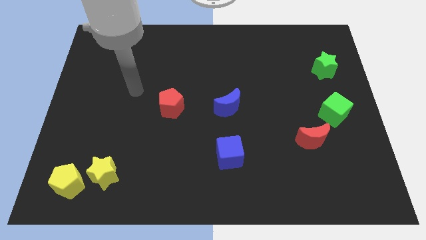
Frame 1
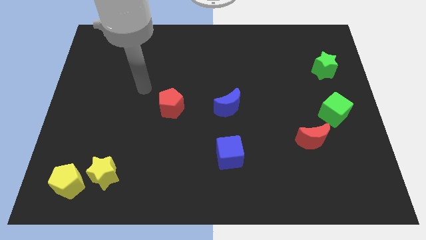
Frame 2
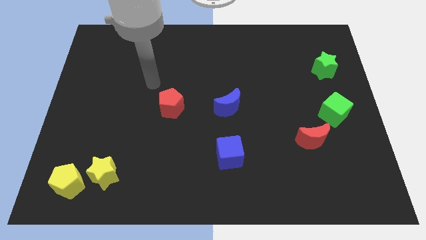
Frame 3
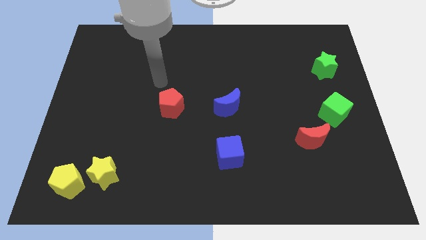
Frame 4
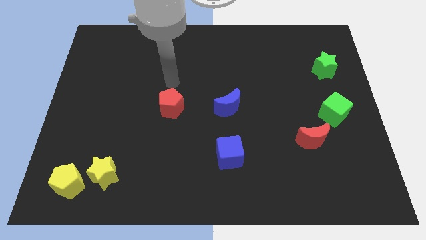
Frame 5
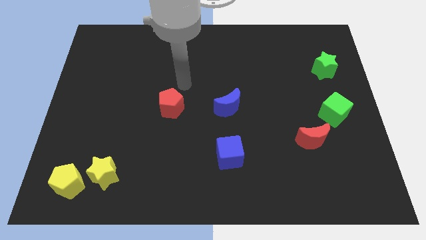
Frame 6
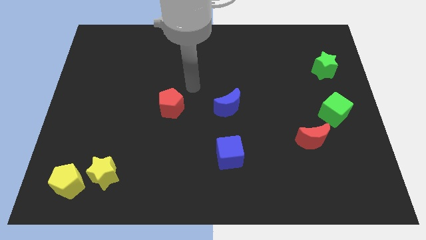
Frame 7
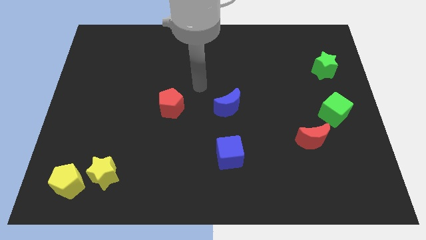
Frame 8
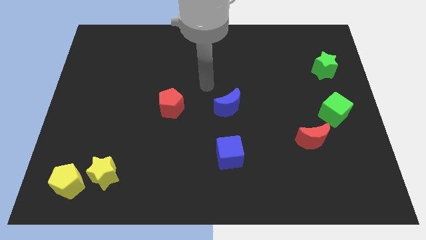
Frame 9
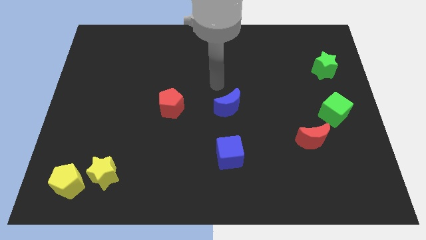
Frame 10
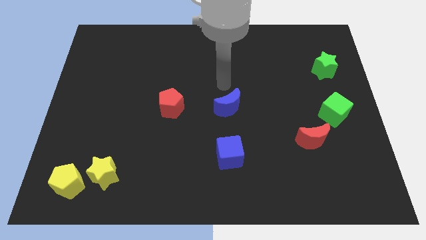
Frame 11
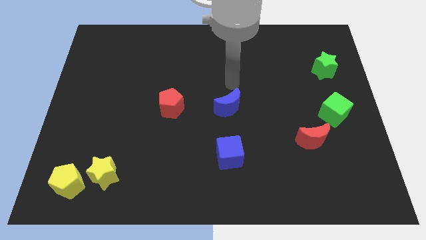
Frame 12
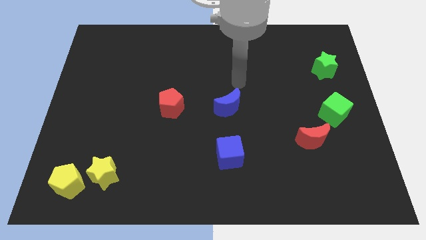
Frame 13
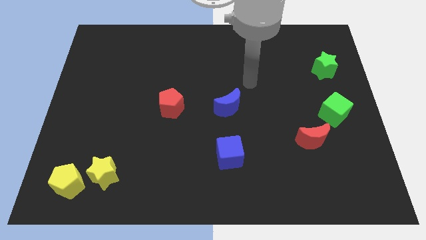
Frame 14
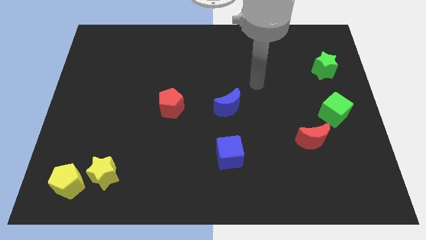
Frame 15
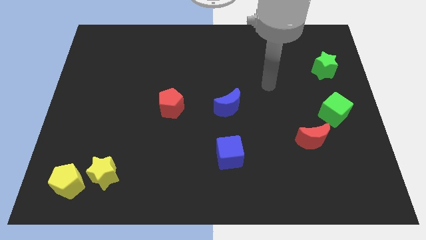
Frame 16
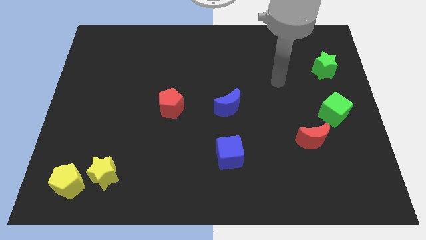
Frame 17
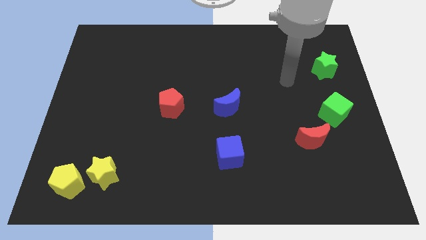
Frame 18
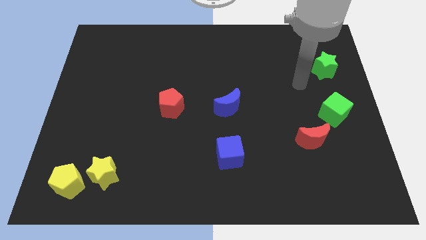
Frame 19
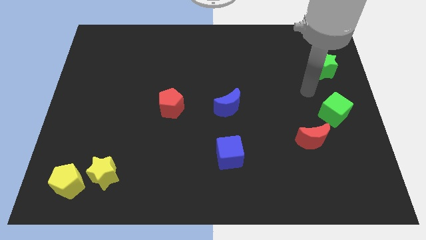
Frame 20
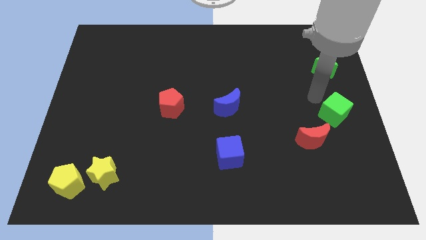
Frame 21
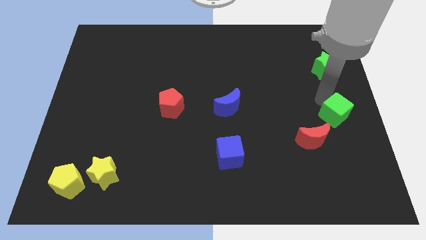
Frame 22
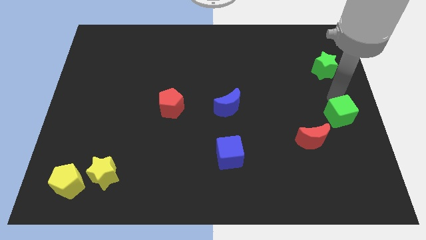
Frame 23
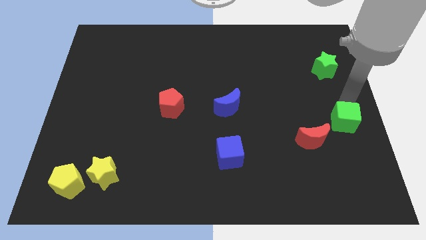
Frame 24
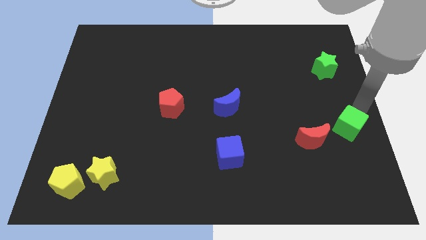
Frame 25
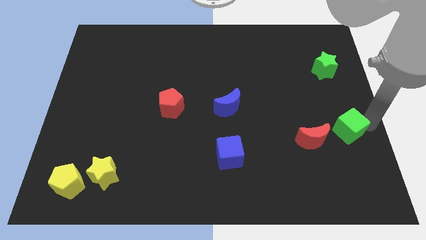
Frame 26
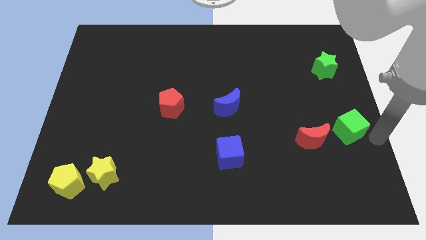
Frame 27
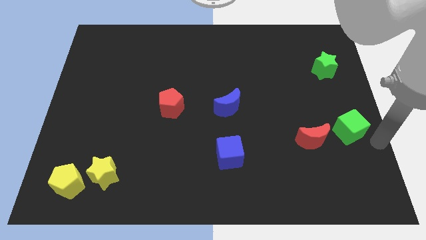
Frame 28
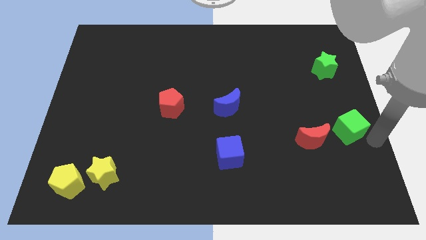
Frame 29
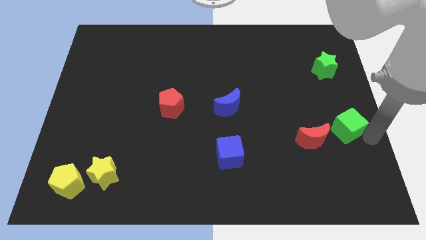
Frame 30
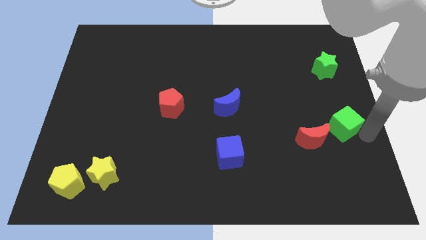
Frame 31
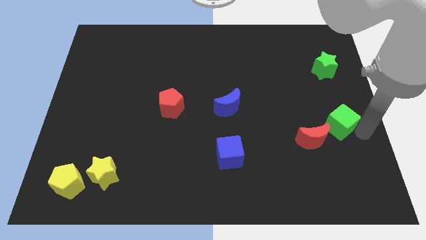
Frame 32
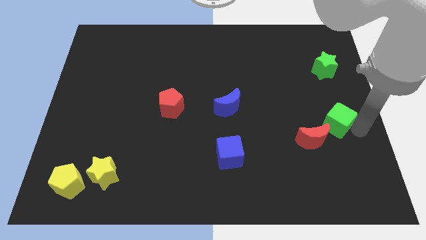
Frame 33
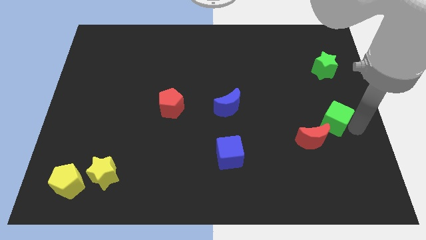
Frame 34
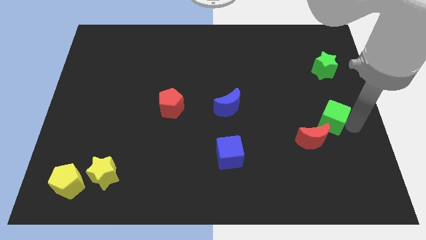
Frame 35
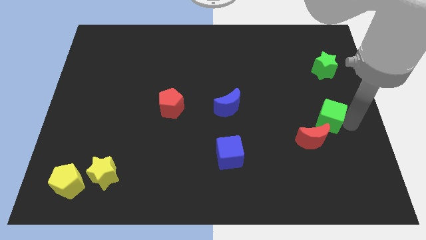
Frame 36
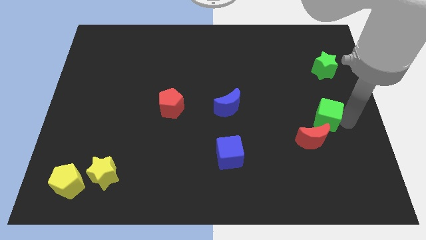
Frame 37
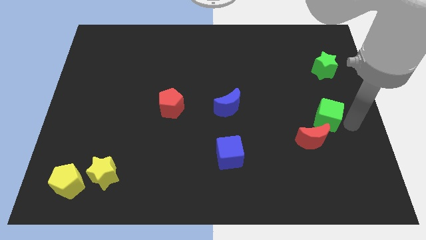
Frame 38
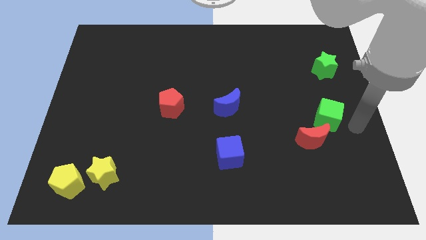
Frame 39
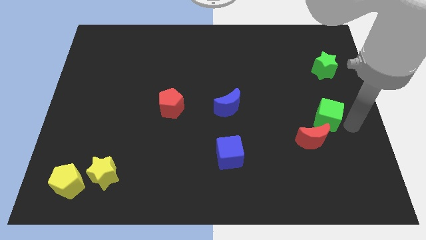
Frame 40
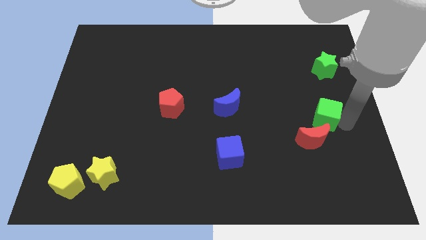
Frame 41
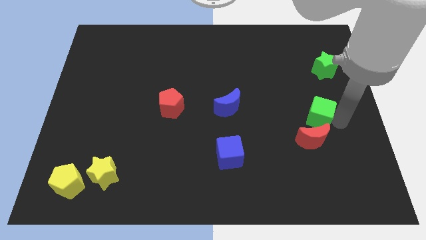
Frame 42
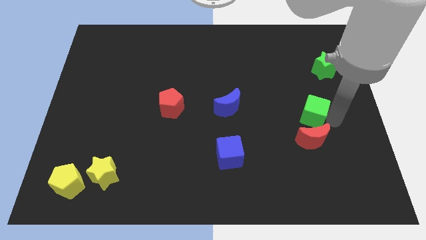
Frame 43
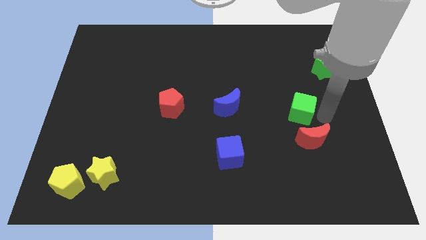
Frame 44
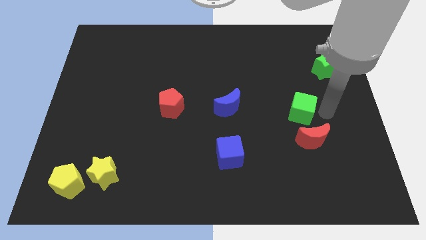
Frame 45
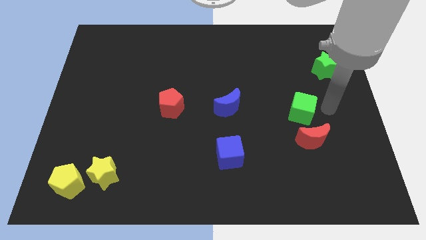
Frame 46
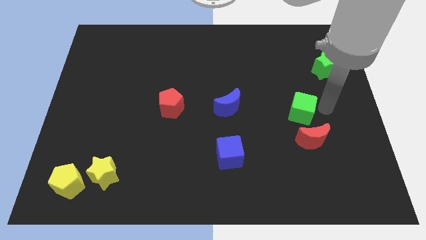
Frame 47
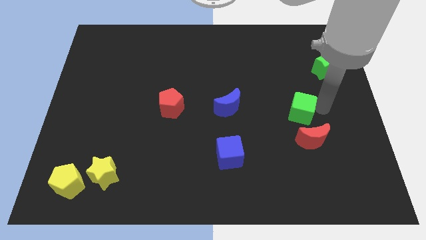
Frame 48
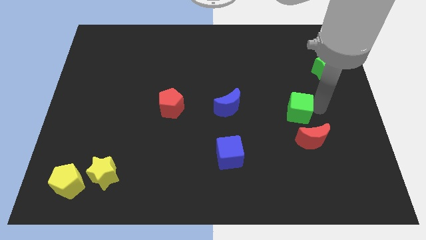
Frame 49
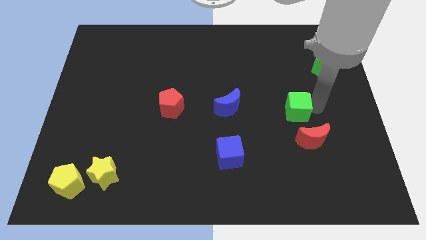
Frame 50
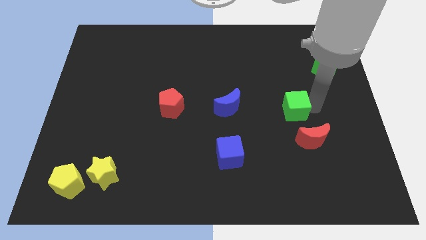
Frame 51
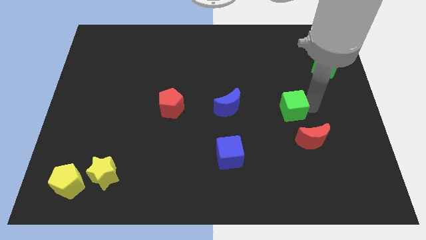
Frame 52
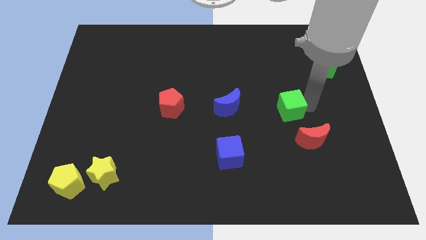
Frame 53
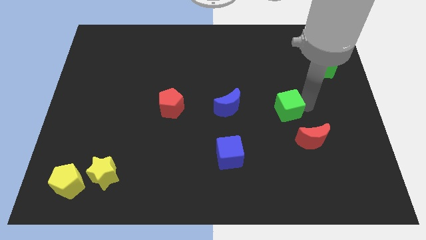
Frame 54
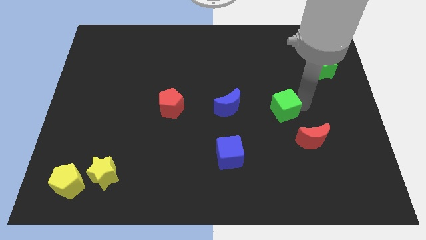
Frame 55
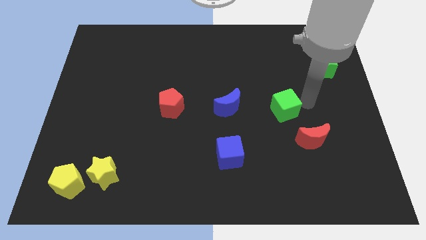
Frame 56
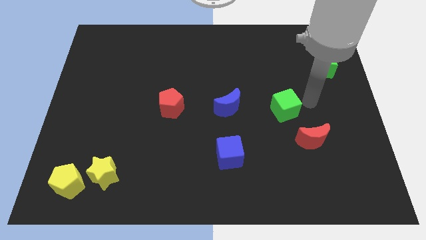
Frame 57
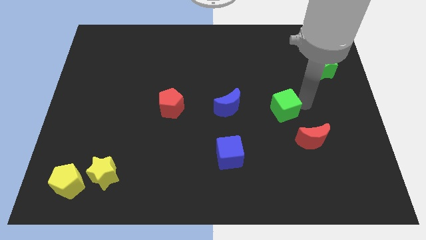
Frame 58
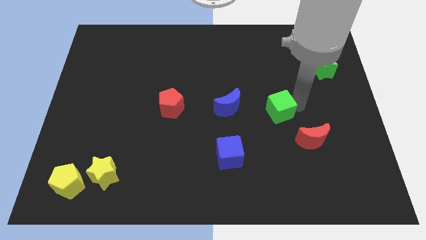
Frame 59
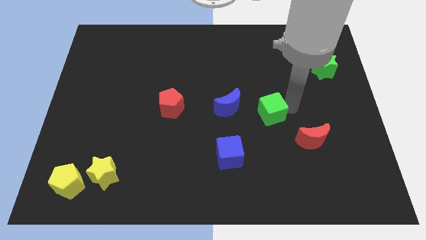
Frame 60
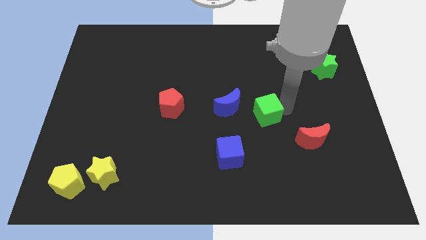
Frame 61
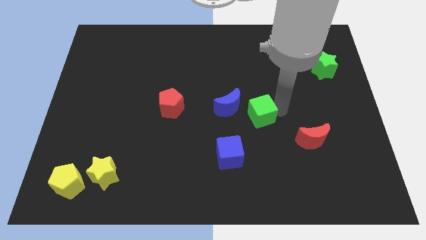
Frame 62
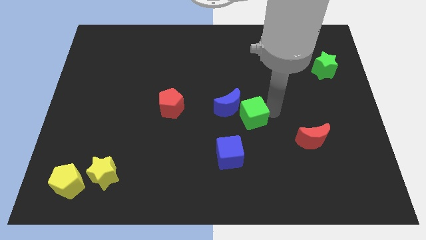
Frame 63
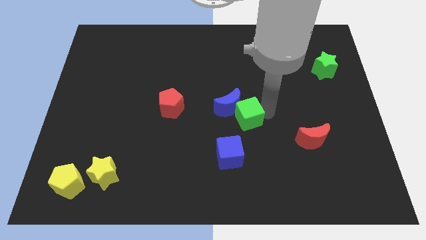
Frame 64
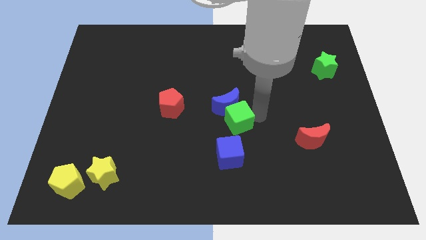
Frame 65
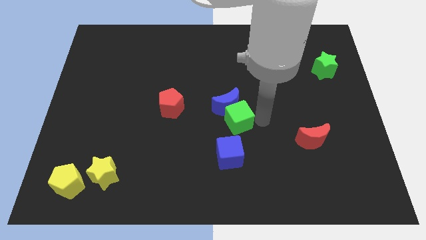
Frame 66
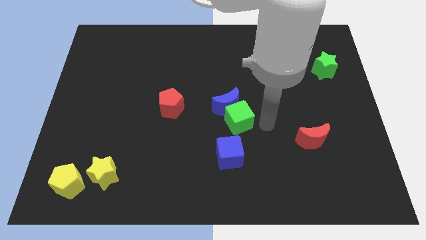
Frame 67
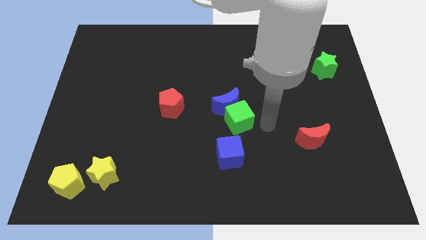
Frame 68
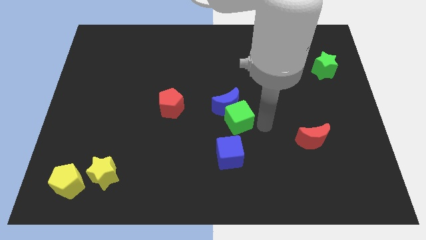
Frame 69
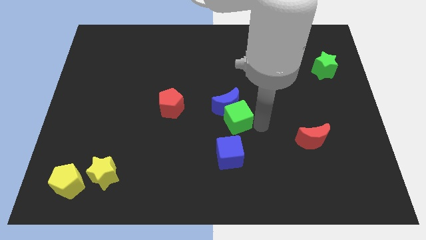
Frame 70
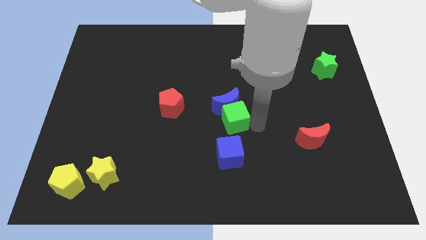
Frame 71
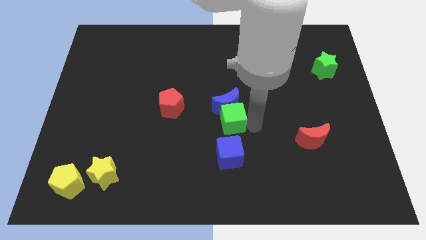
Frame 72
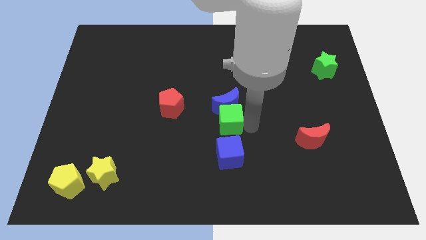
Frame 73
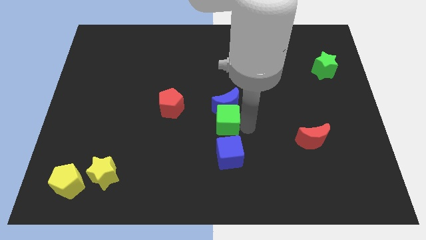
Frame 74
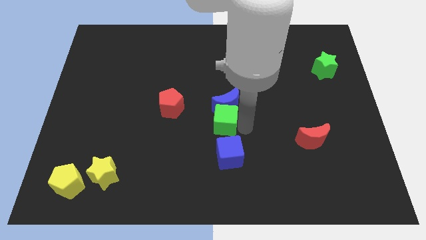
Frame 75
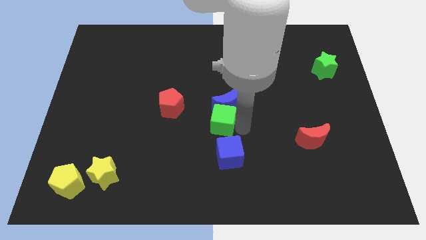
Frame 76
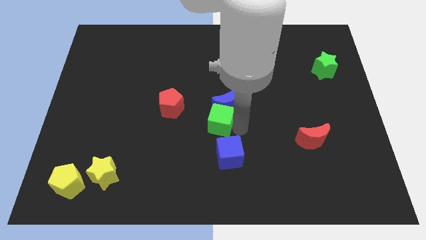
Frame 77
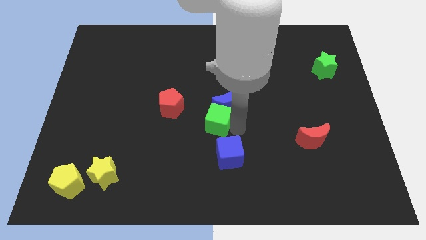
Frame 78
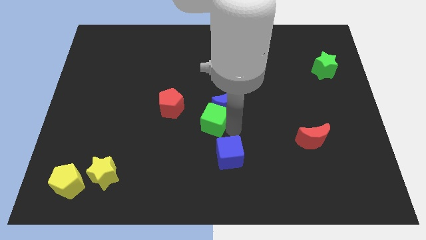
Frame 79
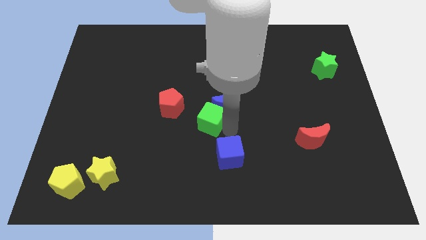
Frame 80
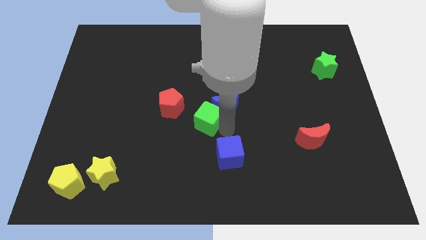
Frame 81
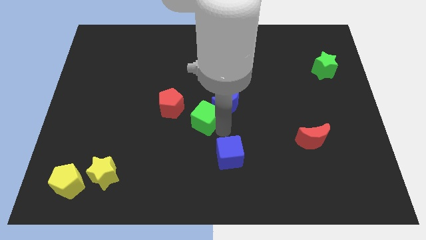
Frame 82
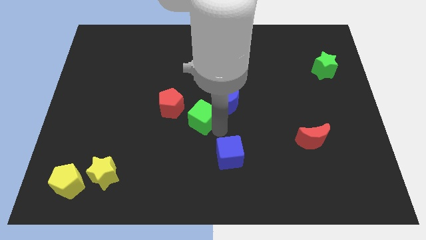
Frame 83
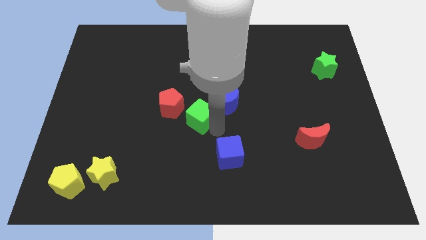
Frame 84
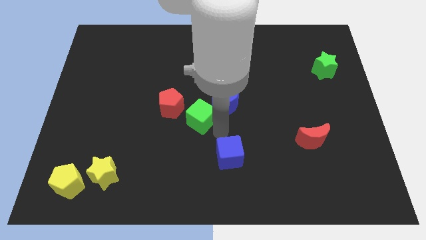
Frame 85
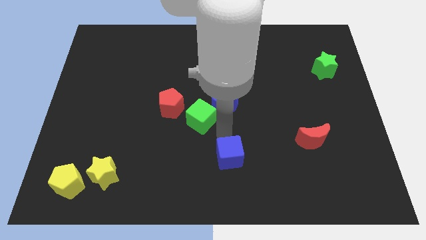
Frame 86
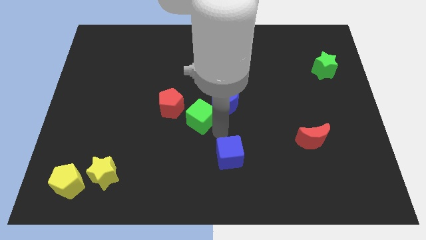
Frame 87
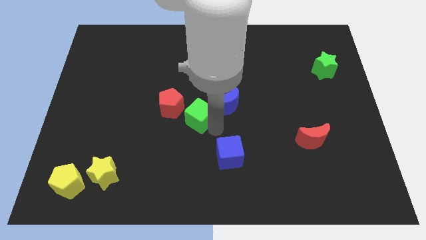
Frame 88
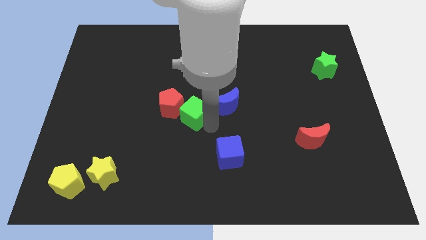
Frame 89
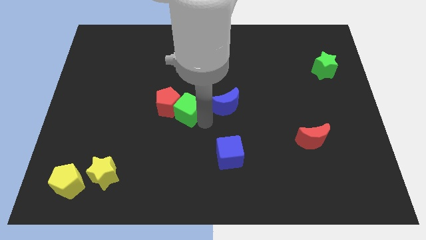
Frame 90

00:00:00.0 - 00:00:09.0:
move the green cube to the red pentagon
